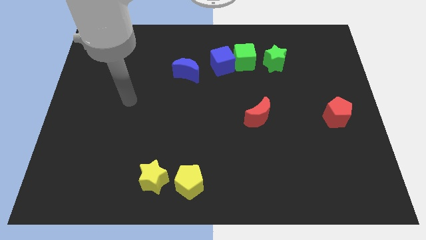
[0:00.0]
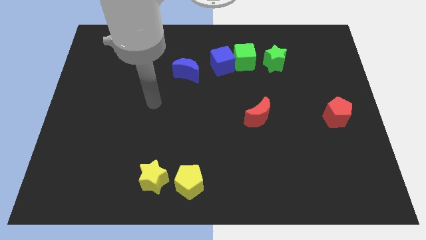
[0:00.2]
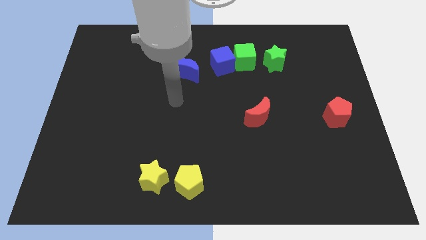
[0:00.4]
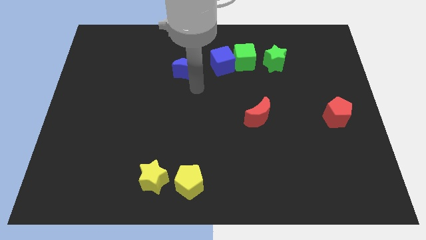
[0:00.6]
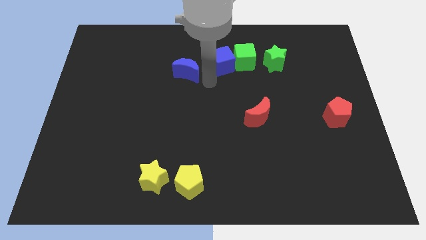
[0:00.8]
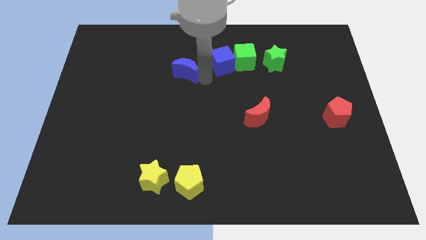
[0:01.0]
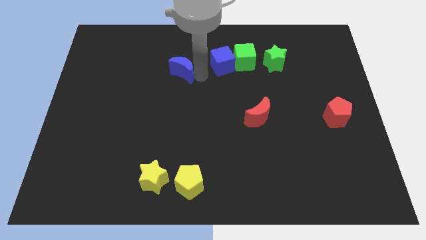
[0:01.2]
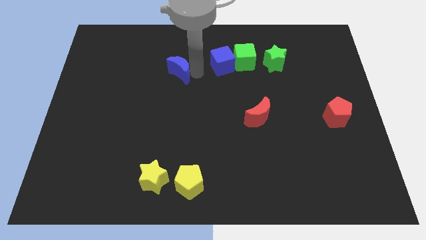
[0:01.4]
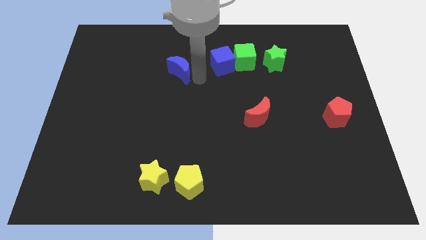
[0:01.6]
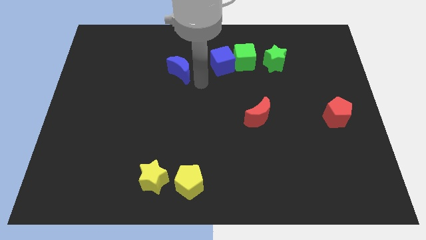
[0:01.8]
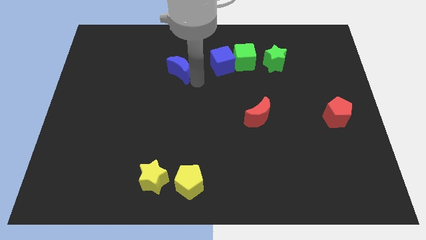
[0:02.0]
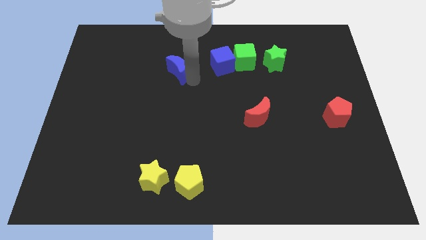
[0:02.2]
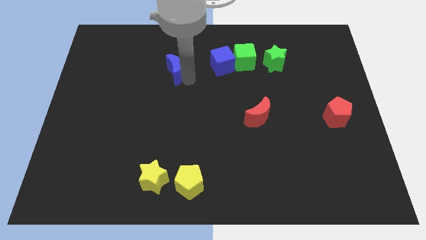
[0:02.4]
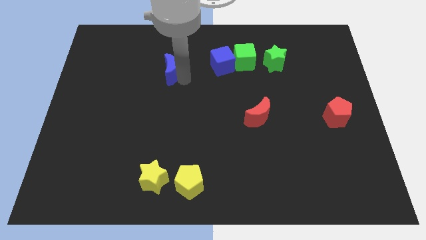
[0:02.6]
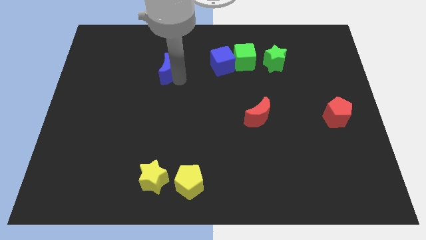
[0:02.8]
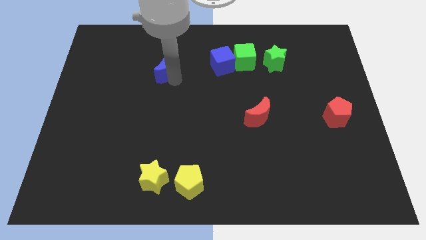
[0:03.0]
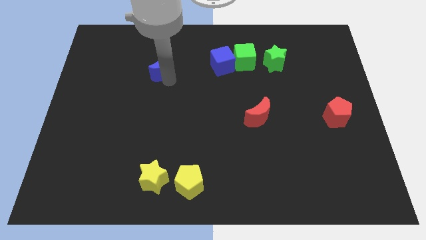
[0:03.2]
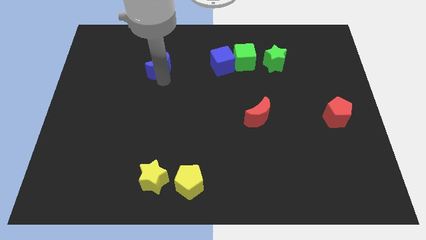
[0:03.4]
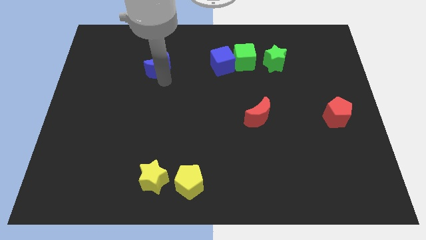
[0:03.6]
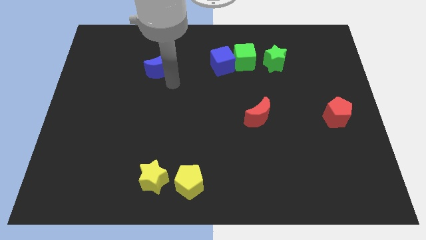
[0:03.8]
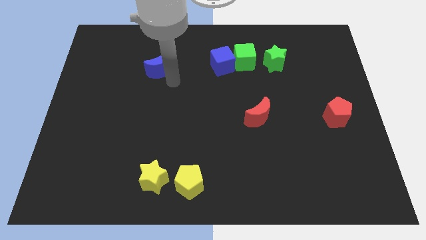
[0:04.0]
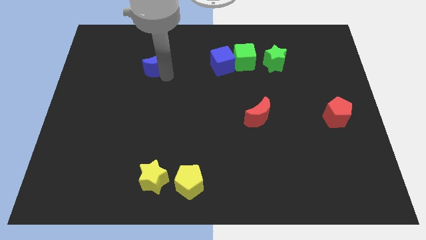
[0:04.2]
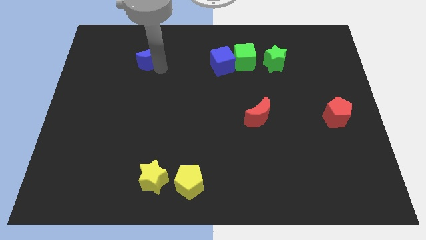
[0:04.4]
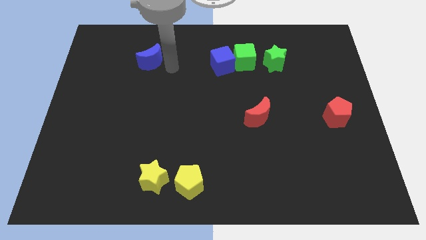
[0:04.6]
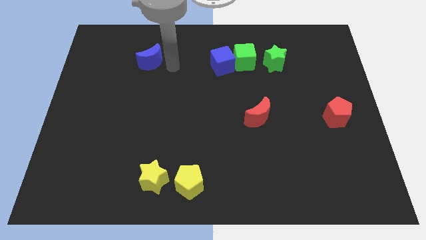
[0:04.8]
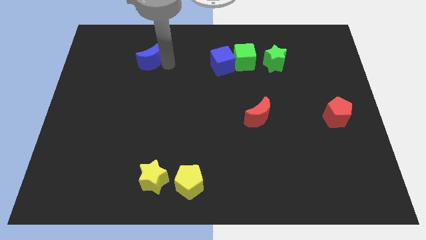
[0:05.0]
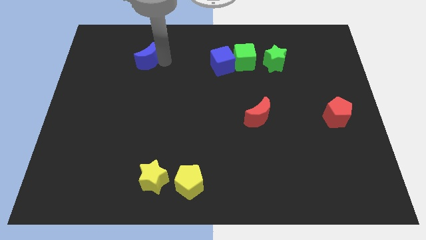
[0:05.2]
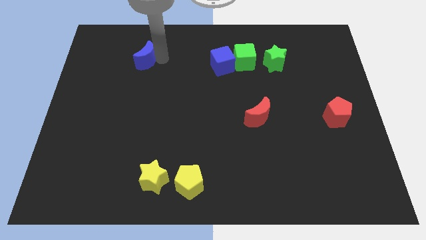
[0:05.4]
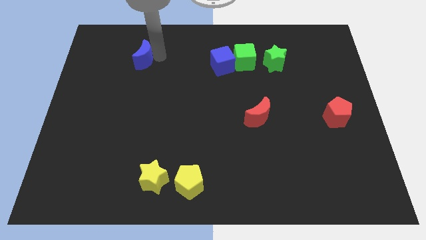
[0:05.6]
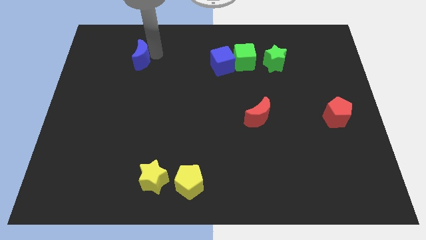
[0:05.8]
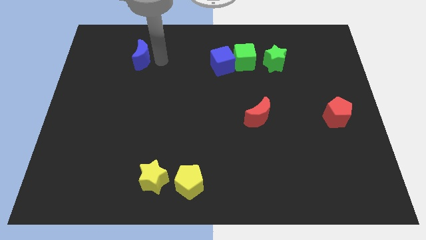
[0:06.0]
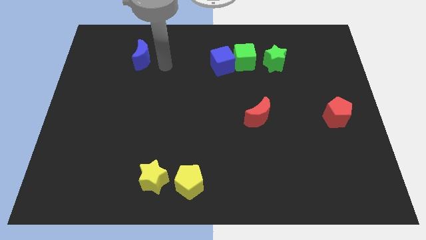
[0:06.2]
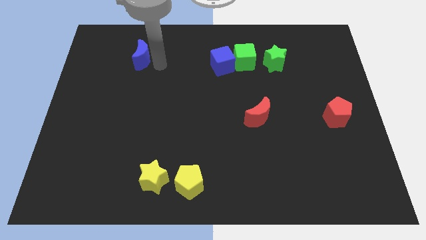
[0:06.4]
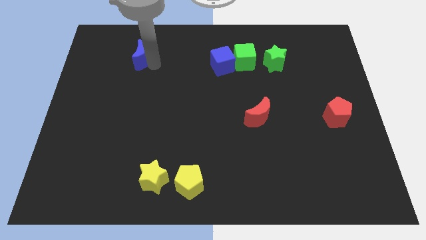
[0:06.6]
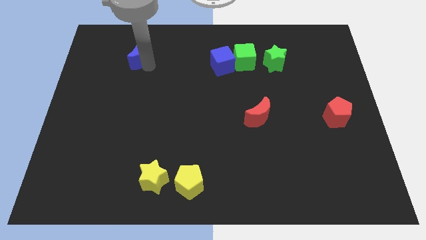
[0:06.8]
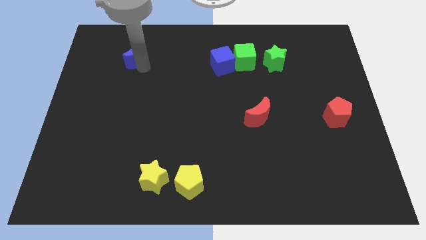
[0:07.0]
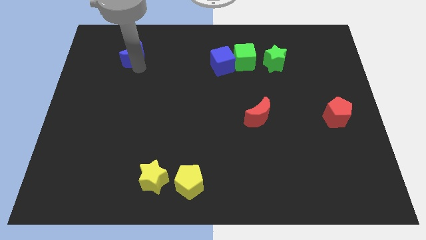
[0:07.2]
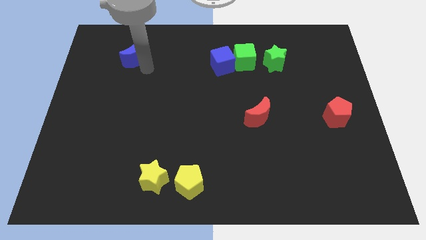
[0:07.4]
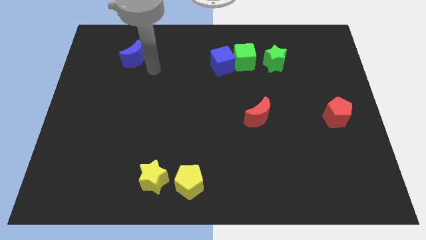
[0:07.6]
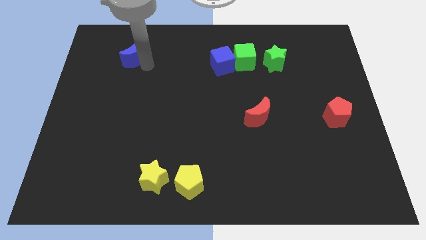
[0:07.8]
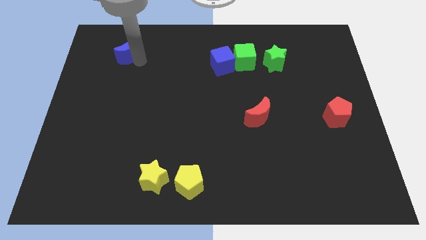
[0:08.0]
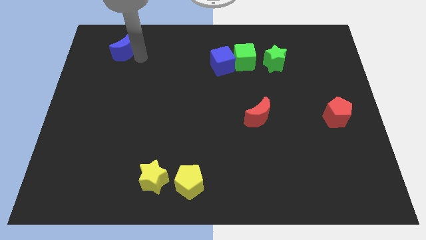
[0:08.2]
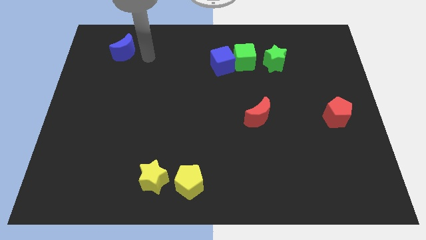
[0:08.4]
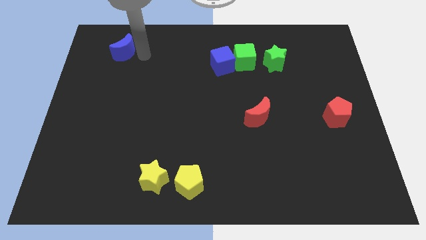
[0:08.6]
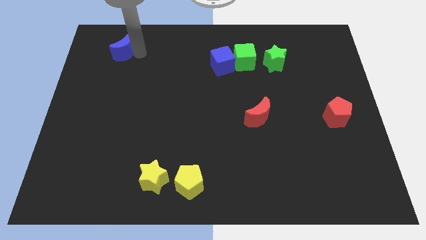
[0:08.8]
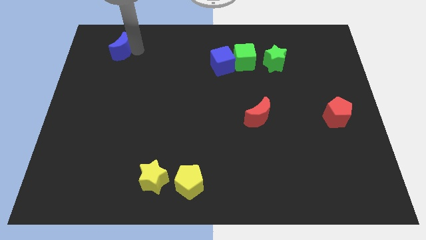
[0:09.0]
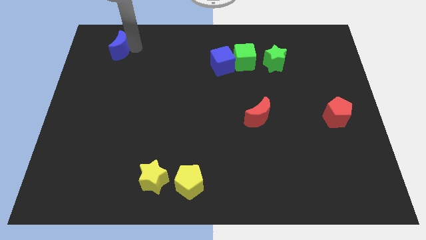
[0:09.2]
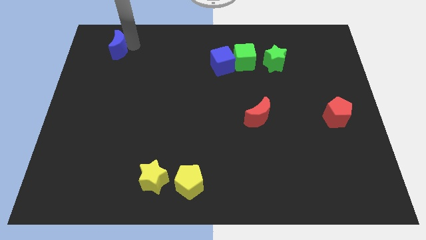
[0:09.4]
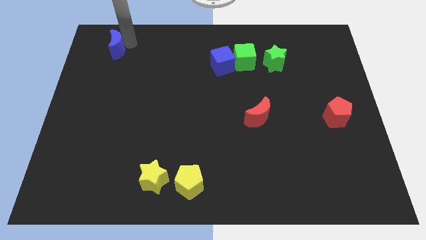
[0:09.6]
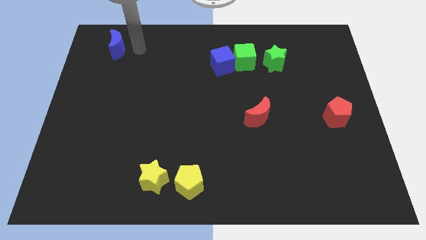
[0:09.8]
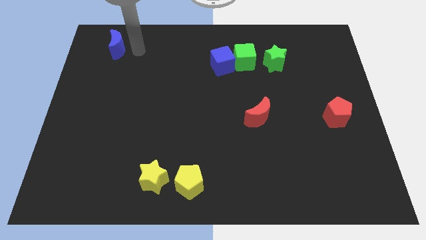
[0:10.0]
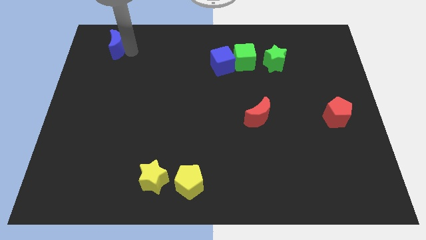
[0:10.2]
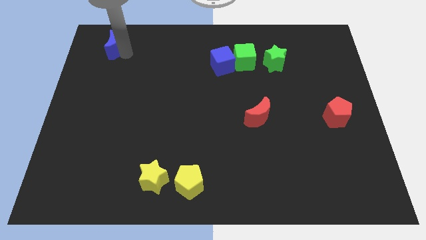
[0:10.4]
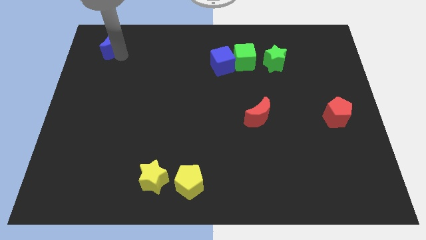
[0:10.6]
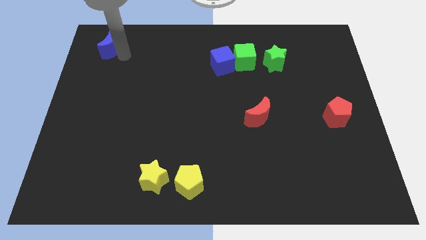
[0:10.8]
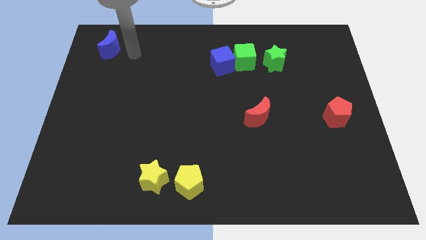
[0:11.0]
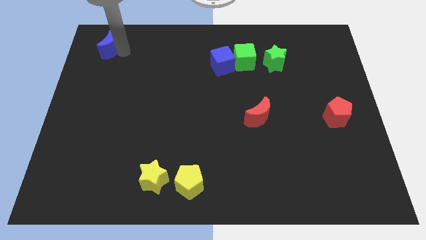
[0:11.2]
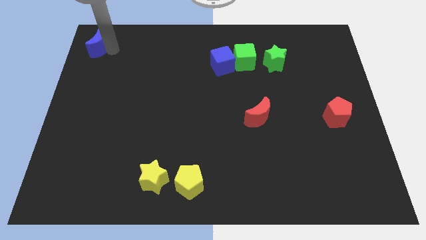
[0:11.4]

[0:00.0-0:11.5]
slide the blue moon to the upper left corner

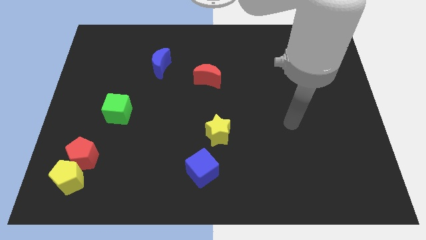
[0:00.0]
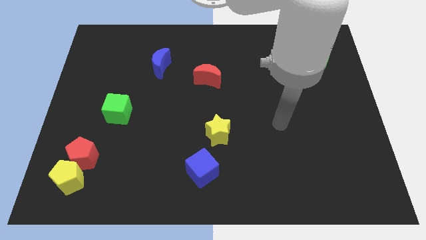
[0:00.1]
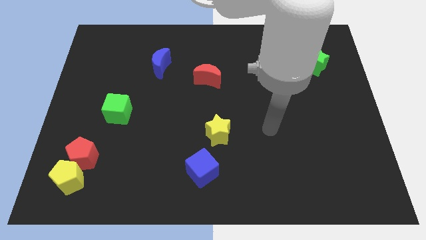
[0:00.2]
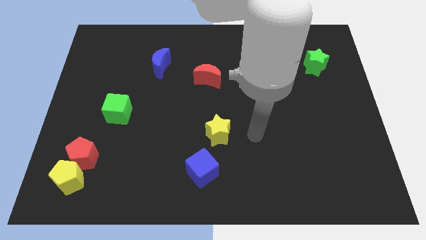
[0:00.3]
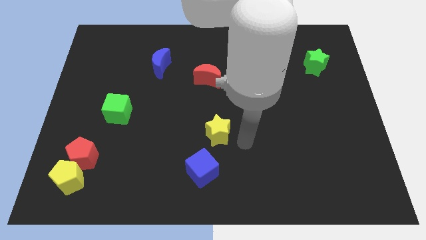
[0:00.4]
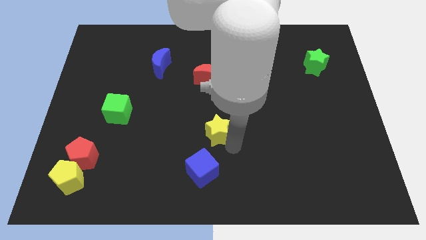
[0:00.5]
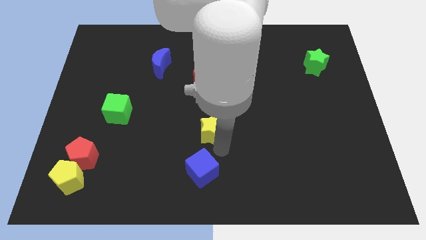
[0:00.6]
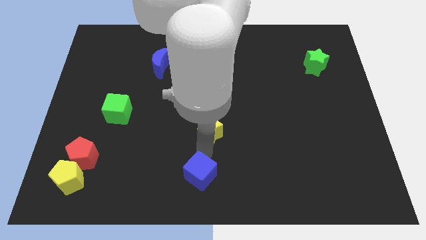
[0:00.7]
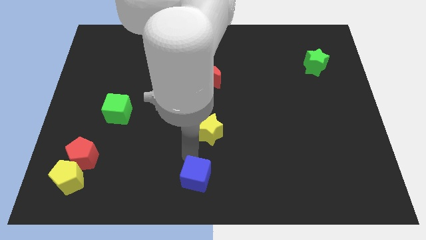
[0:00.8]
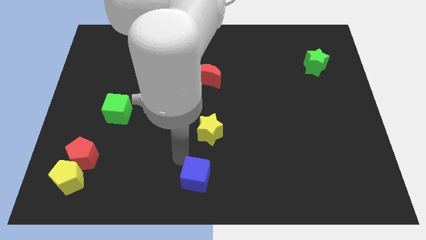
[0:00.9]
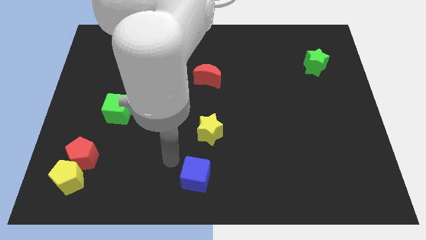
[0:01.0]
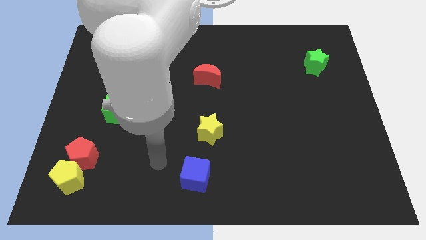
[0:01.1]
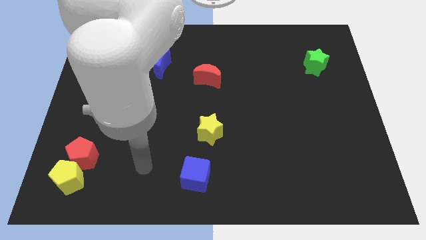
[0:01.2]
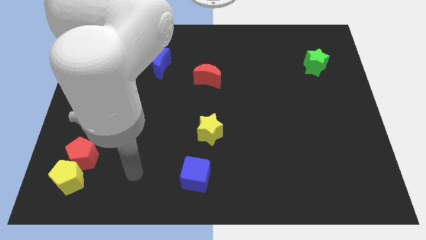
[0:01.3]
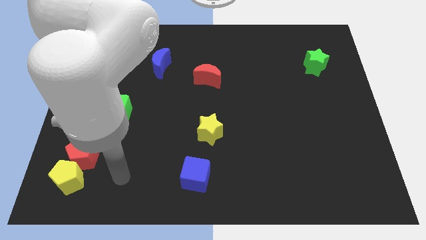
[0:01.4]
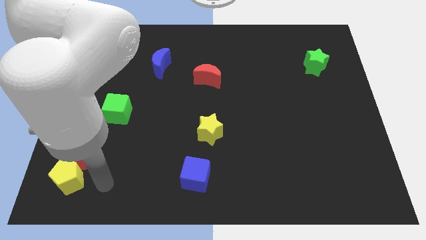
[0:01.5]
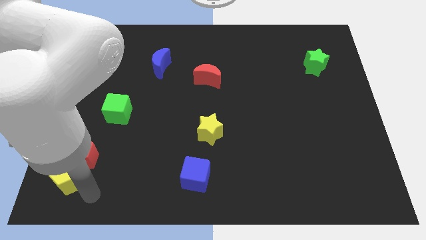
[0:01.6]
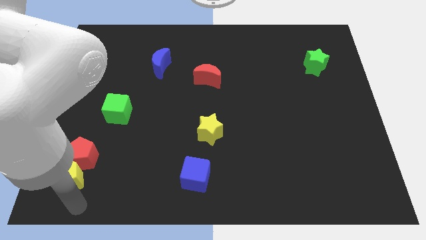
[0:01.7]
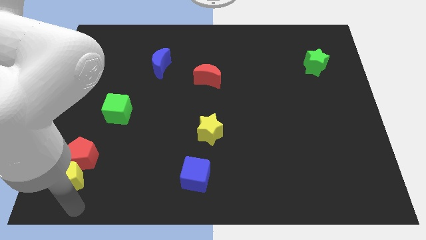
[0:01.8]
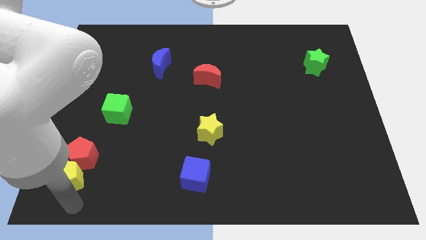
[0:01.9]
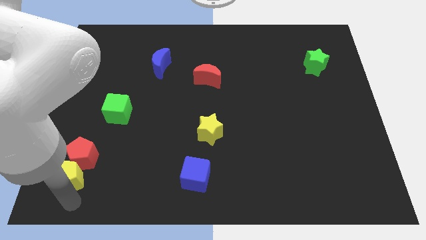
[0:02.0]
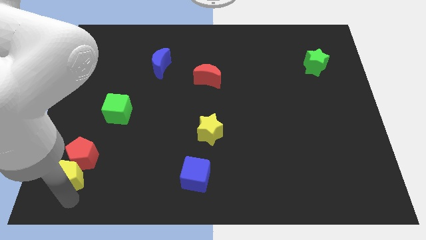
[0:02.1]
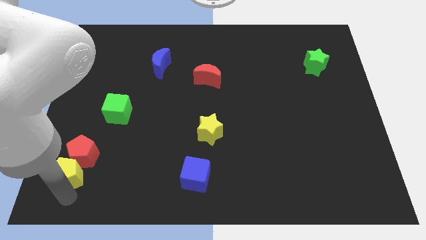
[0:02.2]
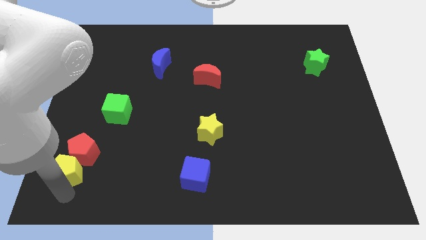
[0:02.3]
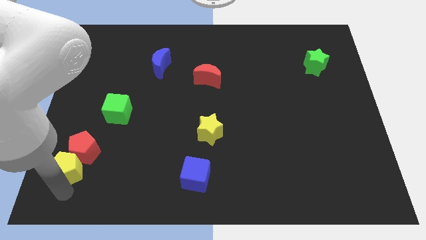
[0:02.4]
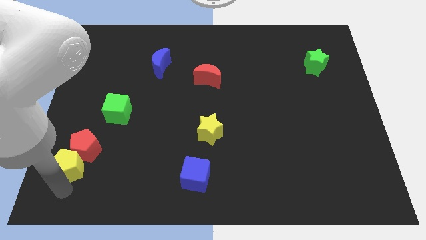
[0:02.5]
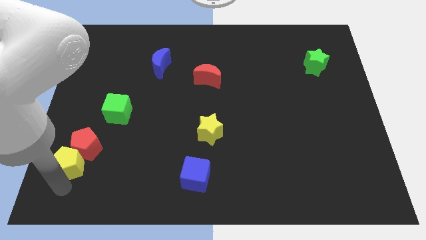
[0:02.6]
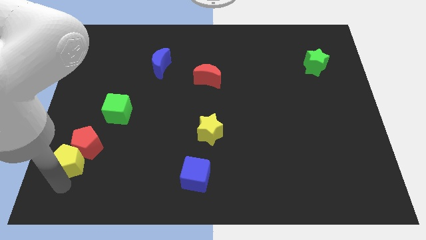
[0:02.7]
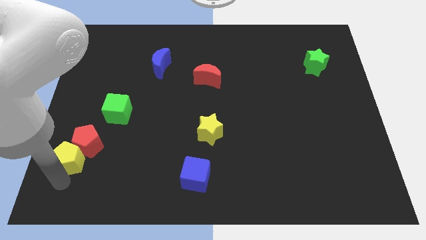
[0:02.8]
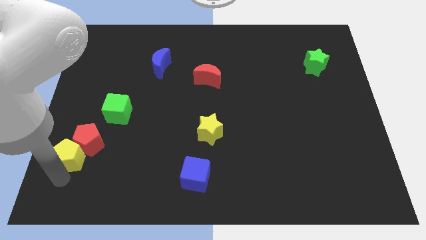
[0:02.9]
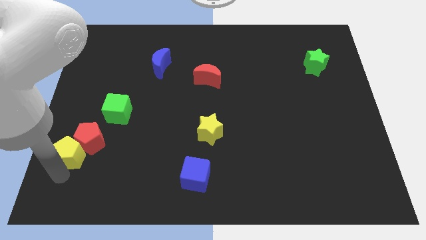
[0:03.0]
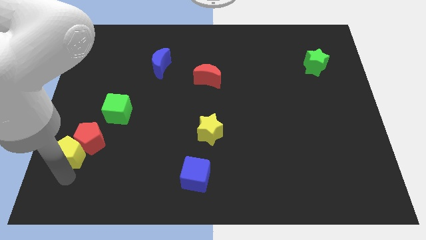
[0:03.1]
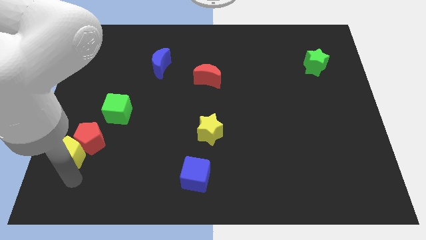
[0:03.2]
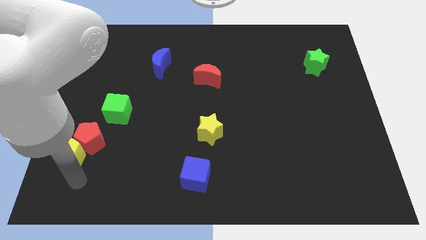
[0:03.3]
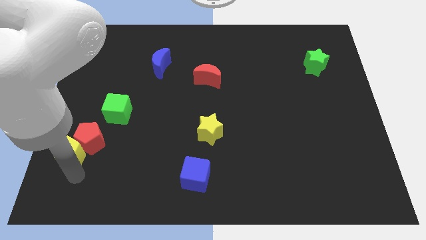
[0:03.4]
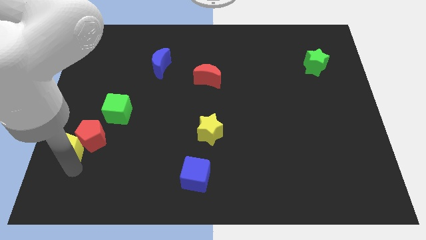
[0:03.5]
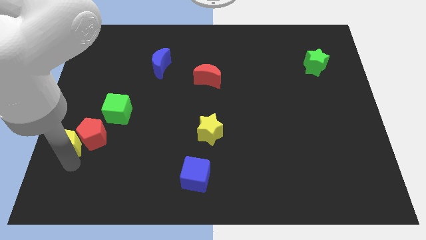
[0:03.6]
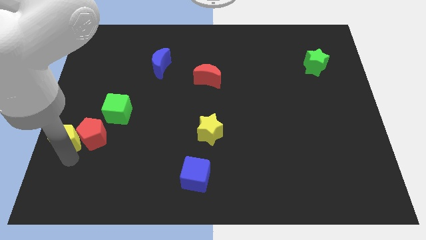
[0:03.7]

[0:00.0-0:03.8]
slide the yellow pentagon to the left side of the board
